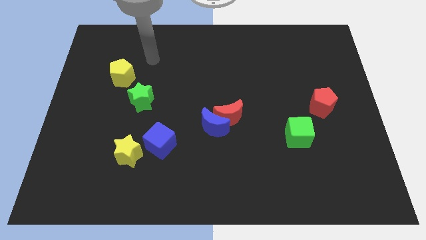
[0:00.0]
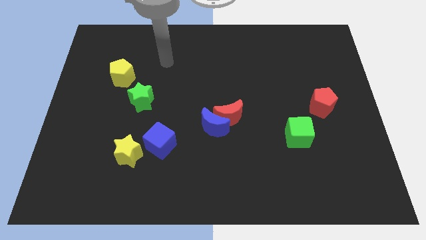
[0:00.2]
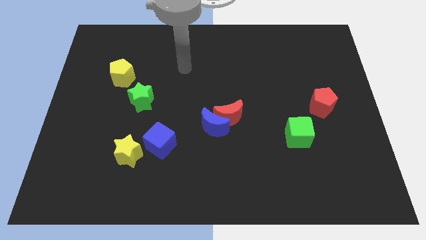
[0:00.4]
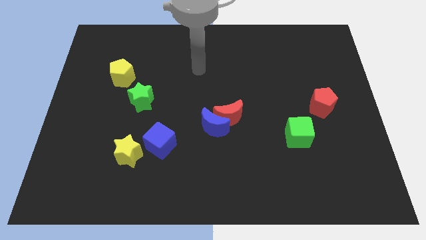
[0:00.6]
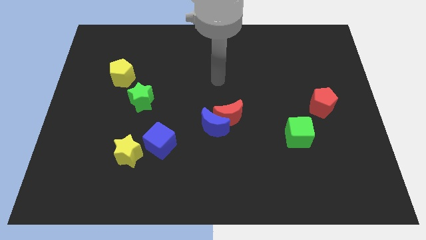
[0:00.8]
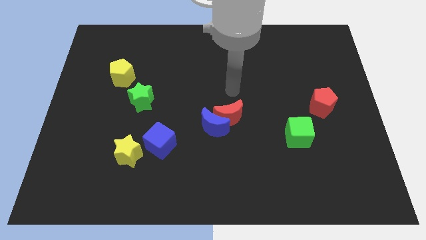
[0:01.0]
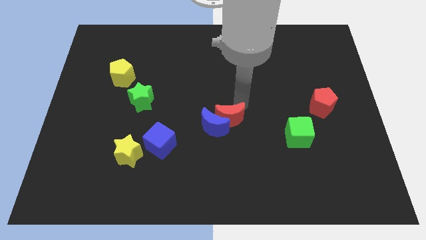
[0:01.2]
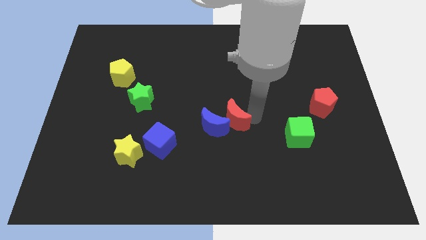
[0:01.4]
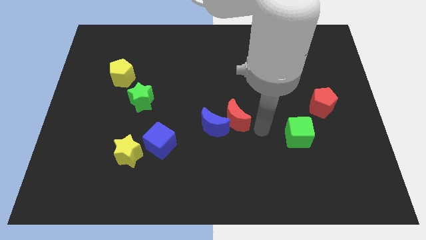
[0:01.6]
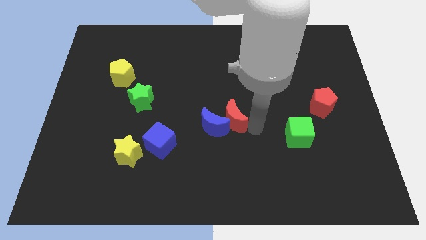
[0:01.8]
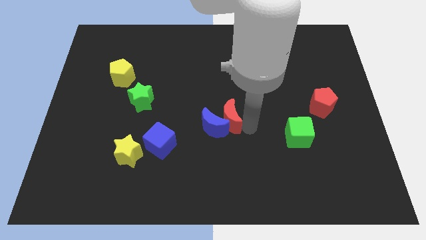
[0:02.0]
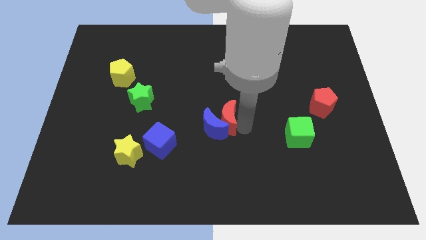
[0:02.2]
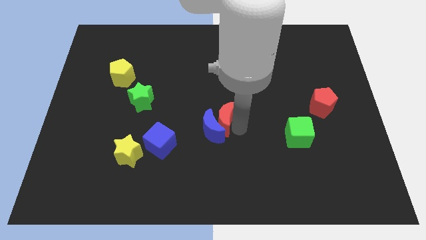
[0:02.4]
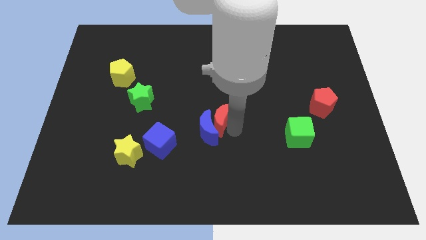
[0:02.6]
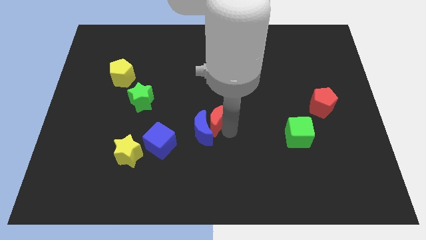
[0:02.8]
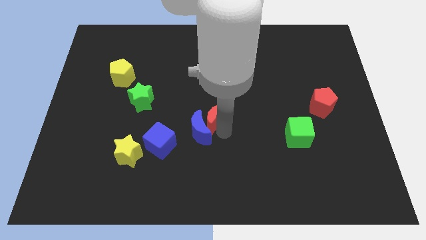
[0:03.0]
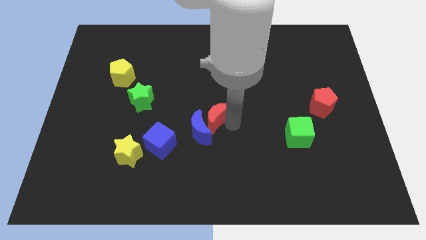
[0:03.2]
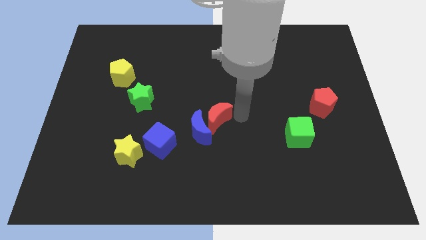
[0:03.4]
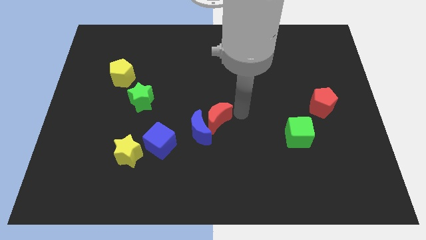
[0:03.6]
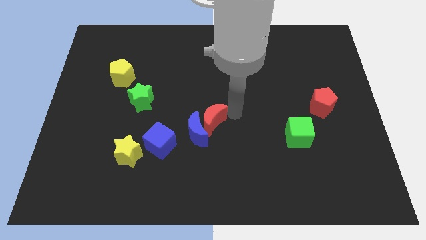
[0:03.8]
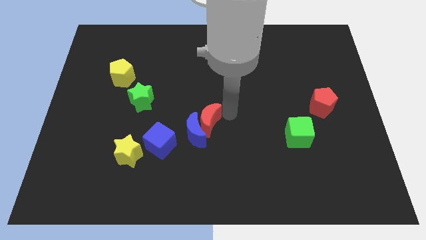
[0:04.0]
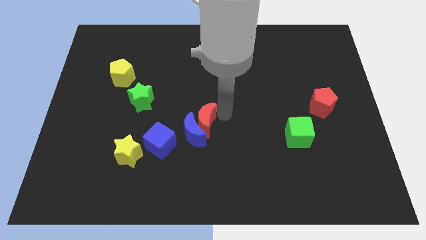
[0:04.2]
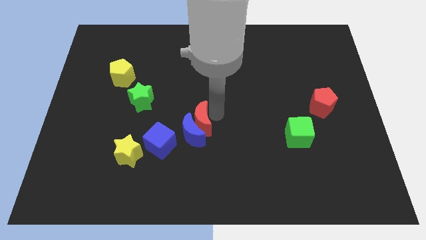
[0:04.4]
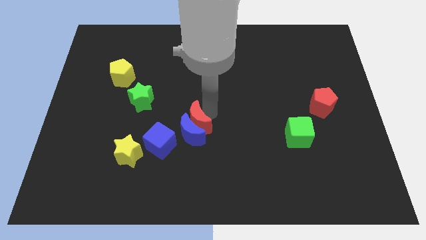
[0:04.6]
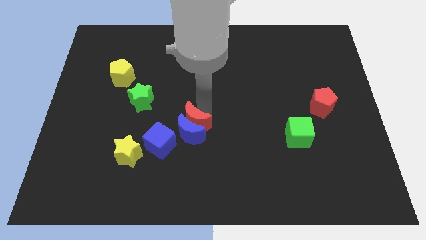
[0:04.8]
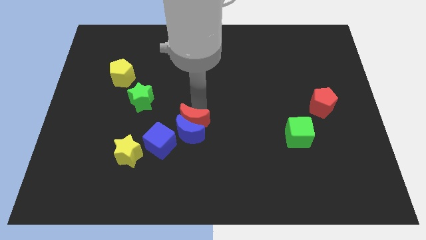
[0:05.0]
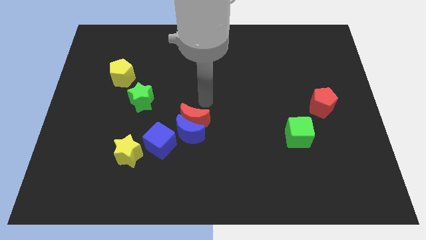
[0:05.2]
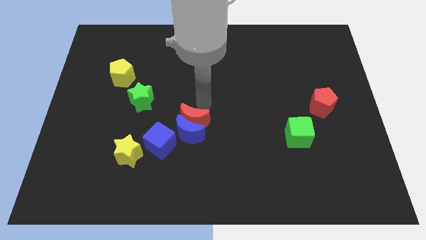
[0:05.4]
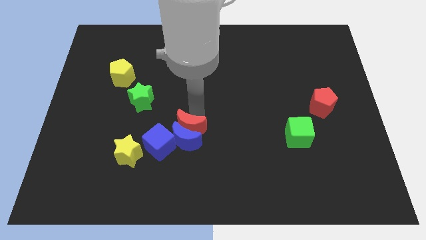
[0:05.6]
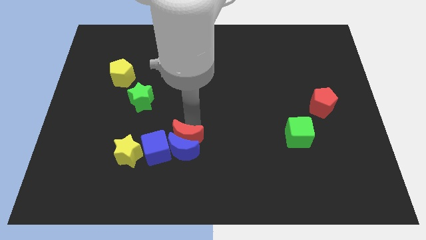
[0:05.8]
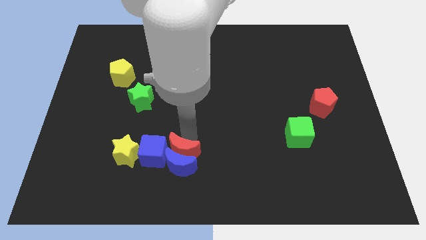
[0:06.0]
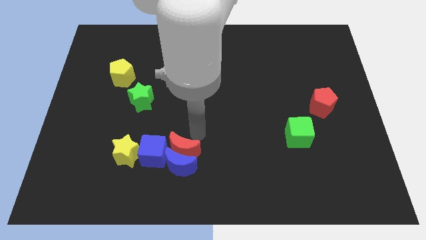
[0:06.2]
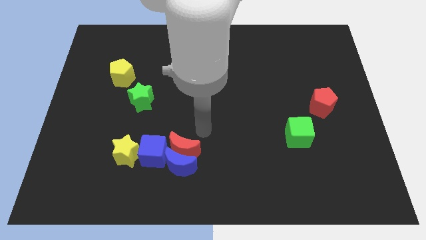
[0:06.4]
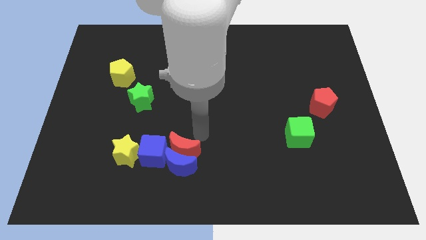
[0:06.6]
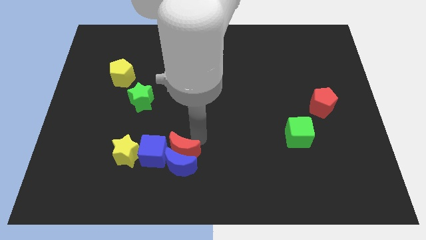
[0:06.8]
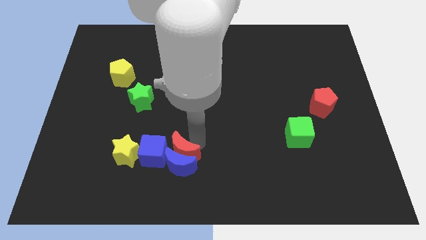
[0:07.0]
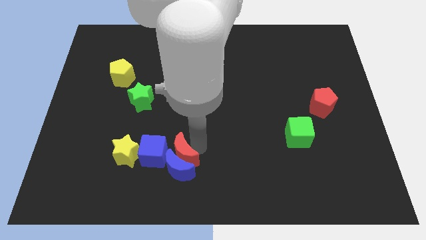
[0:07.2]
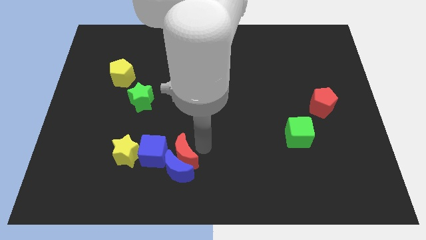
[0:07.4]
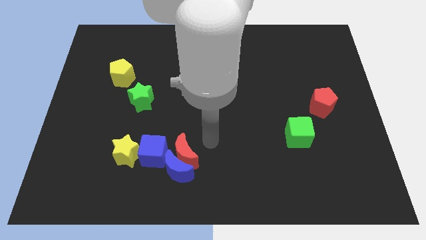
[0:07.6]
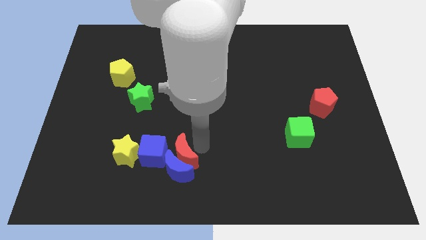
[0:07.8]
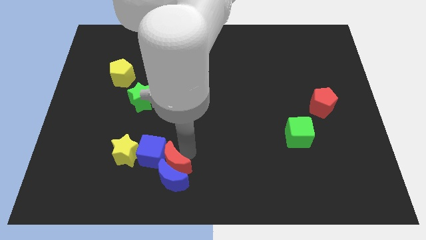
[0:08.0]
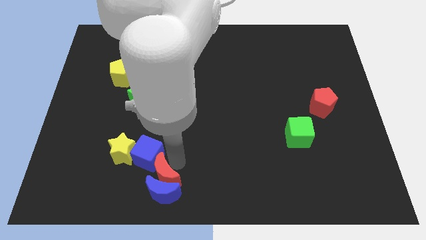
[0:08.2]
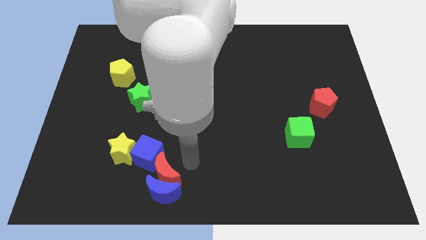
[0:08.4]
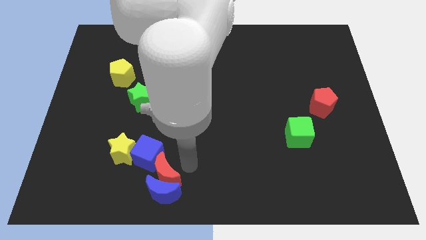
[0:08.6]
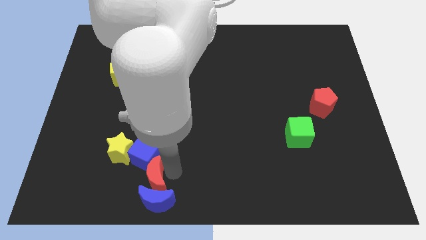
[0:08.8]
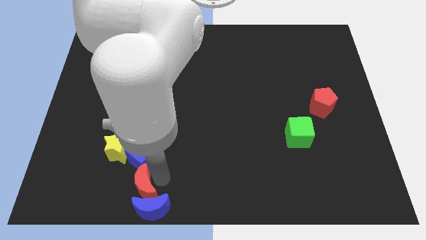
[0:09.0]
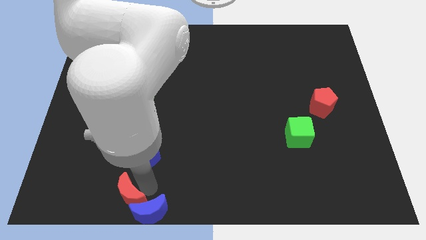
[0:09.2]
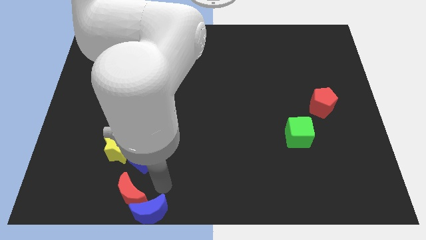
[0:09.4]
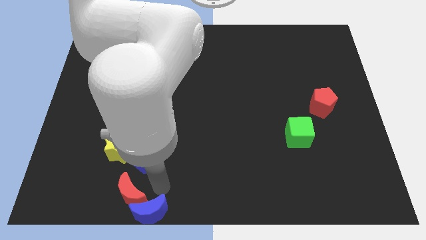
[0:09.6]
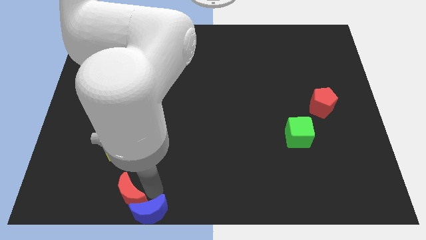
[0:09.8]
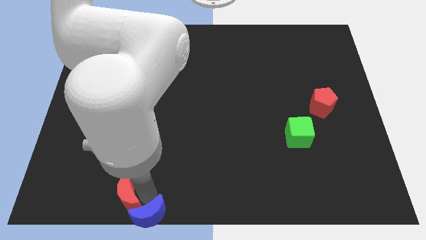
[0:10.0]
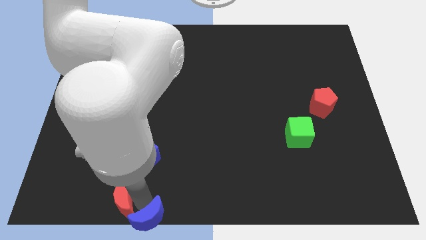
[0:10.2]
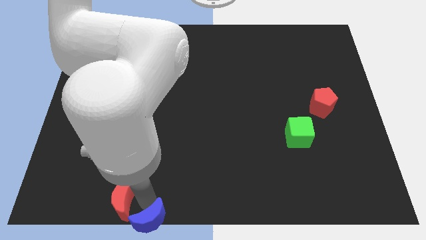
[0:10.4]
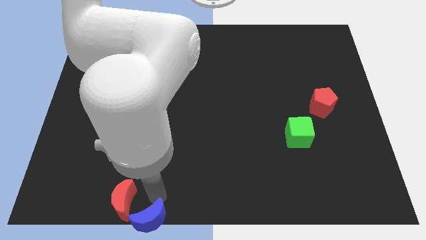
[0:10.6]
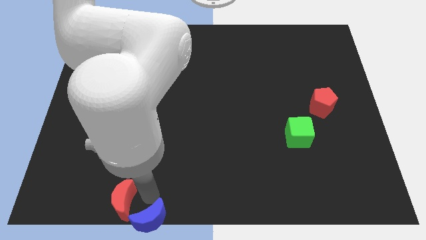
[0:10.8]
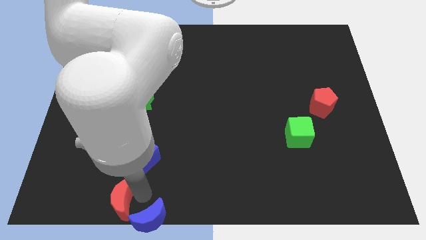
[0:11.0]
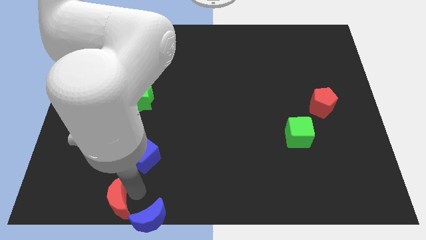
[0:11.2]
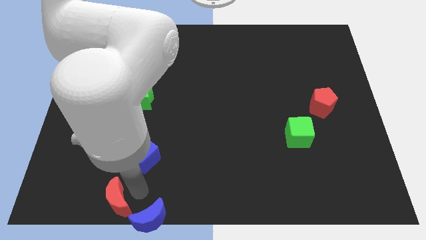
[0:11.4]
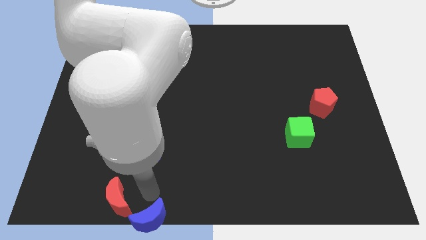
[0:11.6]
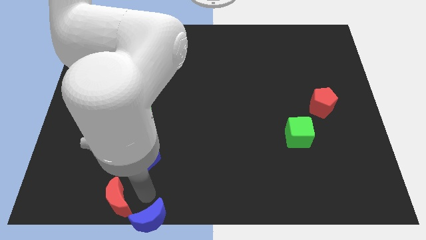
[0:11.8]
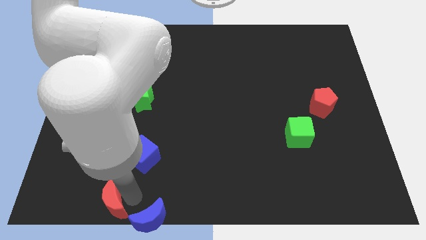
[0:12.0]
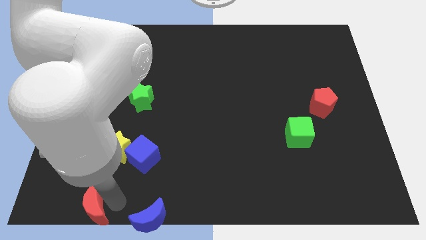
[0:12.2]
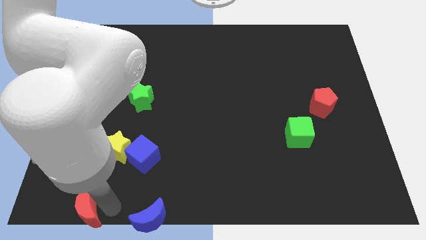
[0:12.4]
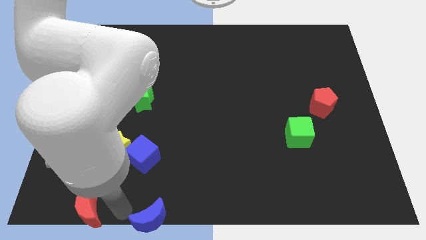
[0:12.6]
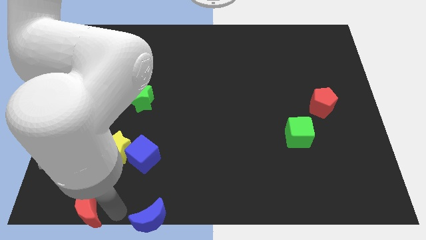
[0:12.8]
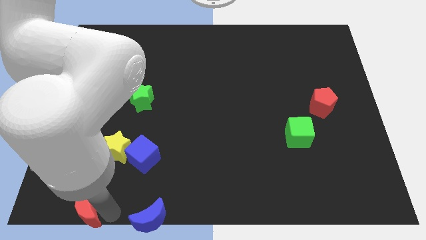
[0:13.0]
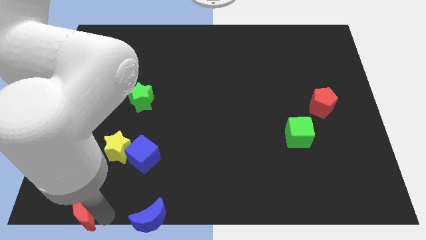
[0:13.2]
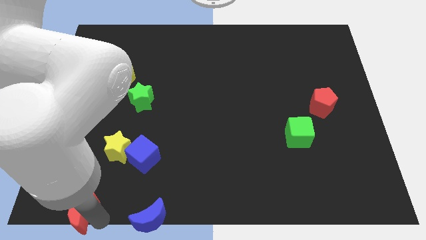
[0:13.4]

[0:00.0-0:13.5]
slide the red moon to the bottom left corner
